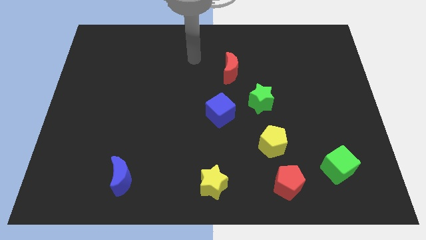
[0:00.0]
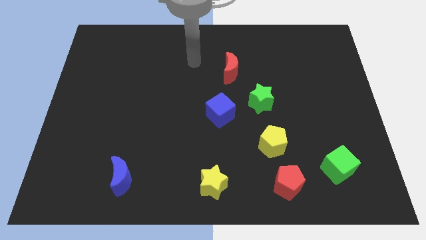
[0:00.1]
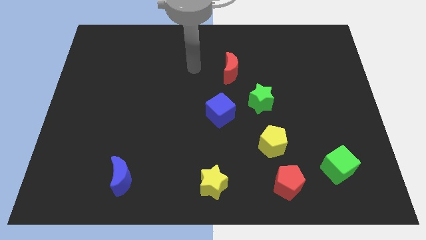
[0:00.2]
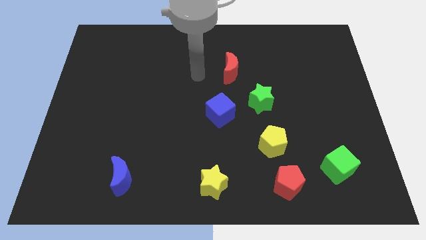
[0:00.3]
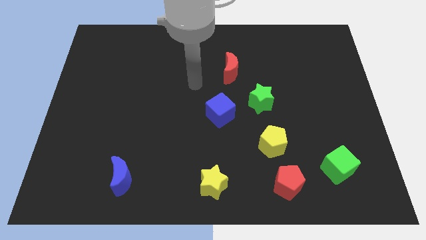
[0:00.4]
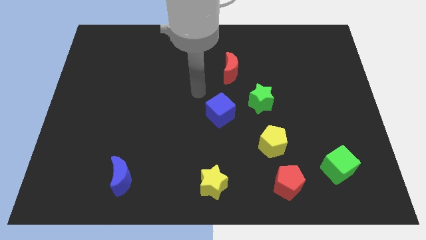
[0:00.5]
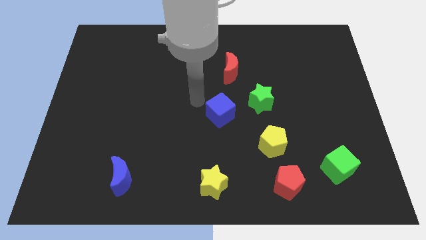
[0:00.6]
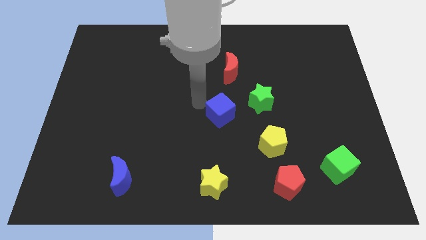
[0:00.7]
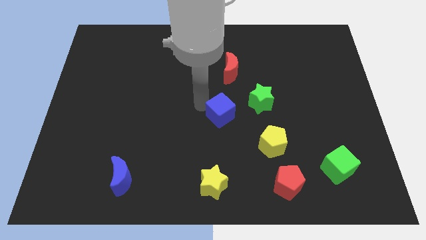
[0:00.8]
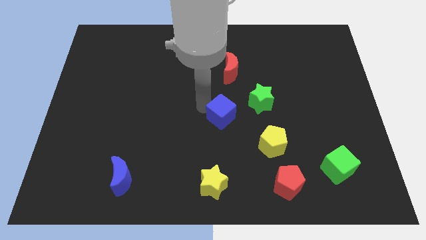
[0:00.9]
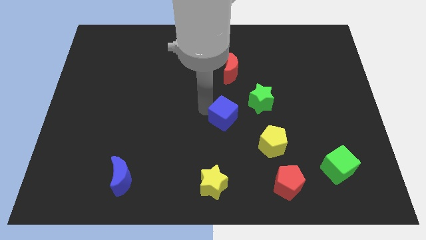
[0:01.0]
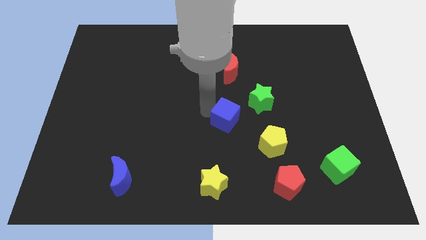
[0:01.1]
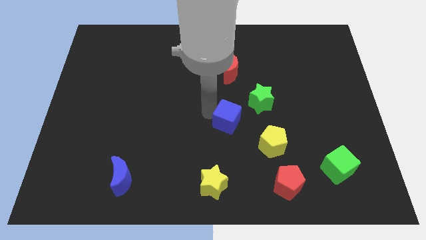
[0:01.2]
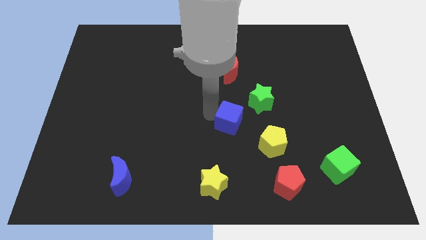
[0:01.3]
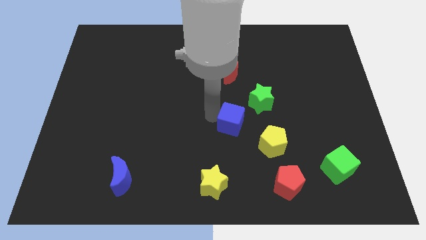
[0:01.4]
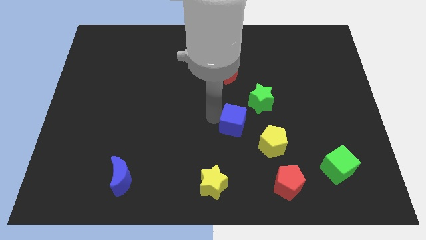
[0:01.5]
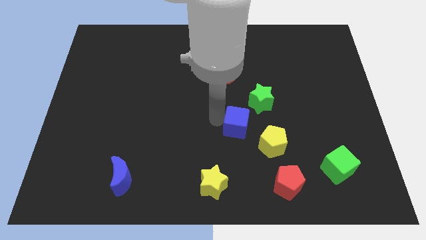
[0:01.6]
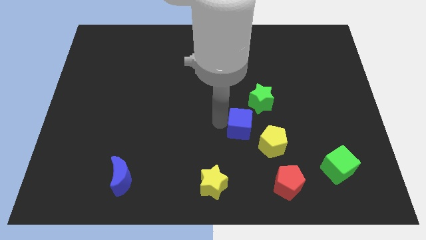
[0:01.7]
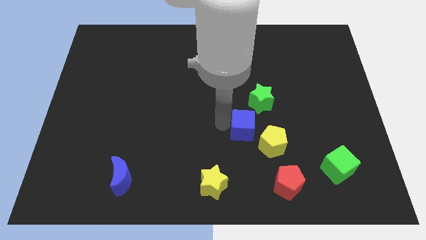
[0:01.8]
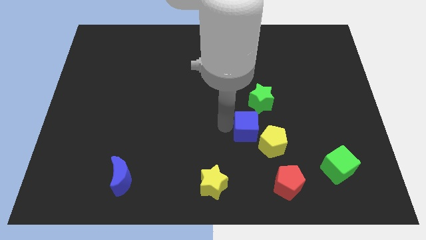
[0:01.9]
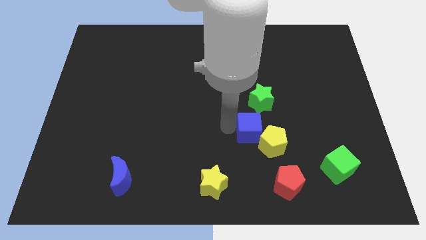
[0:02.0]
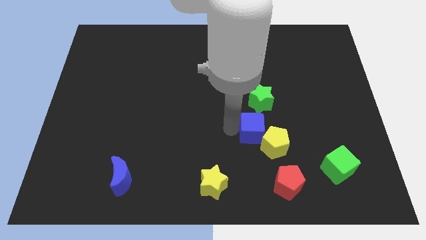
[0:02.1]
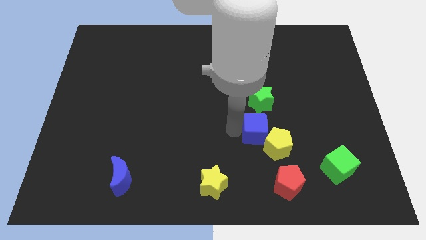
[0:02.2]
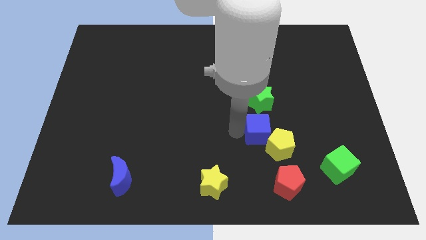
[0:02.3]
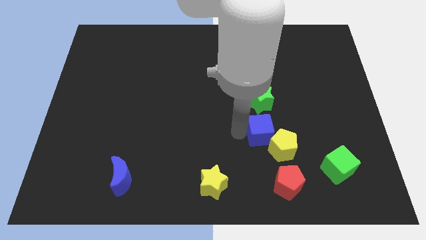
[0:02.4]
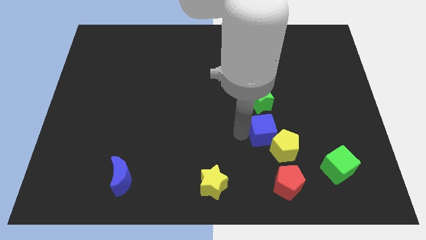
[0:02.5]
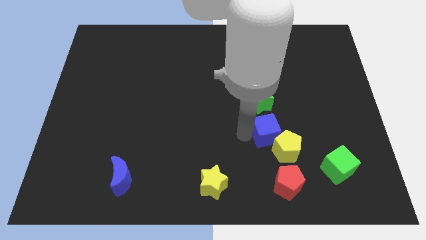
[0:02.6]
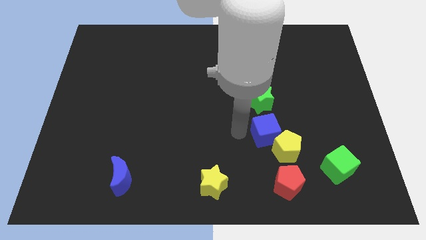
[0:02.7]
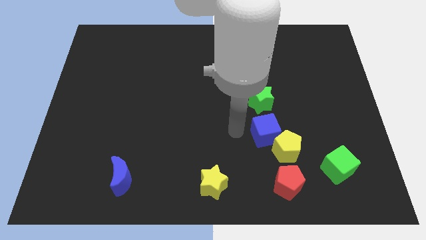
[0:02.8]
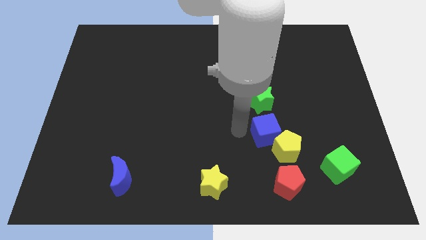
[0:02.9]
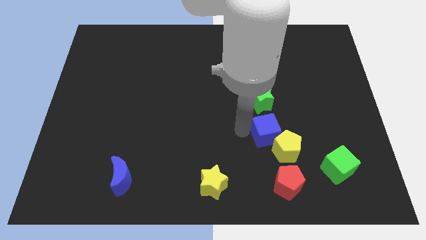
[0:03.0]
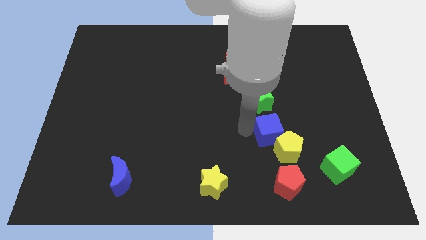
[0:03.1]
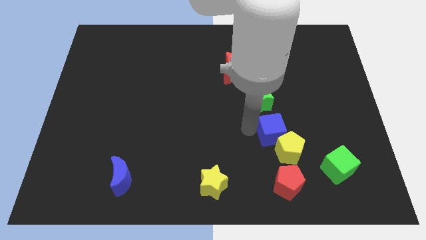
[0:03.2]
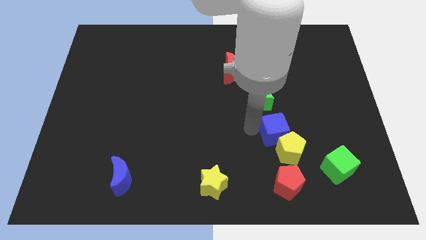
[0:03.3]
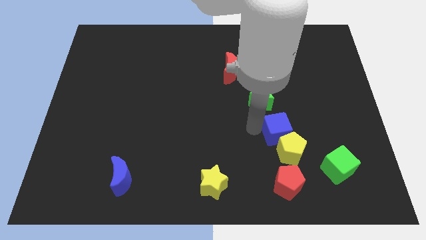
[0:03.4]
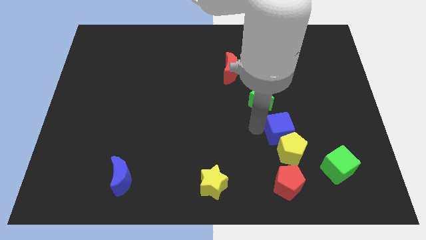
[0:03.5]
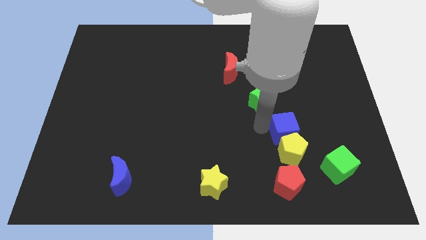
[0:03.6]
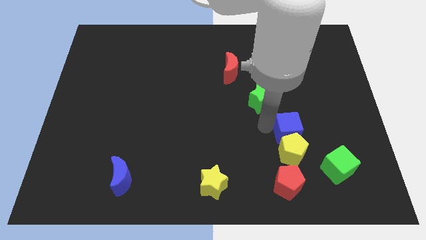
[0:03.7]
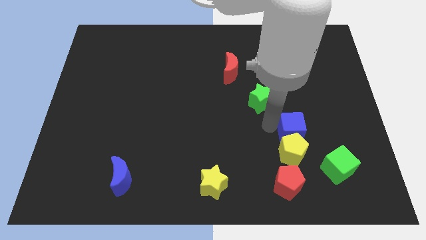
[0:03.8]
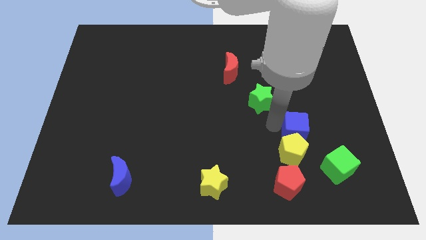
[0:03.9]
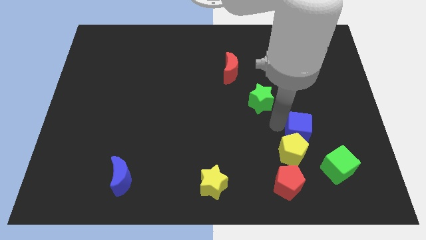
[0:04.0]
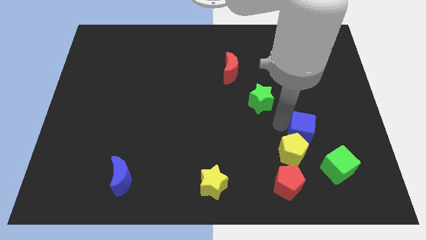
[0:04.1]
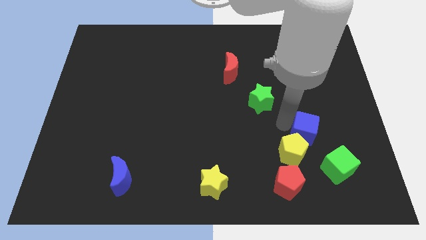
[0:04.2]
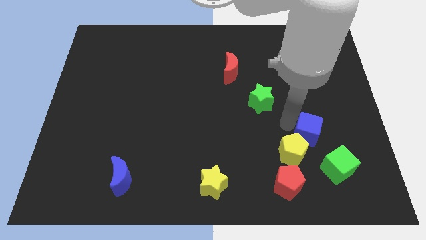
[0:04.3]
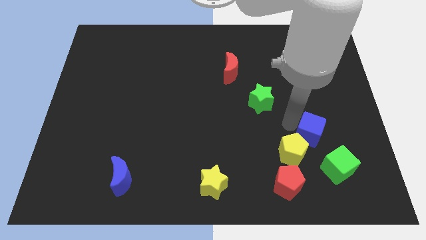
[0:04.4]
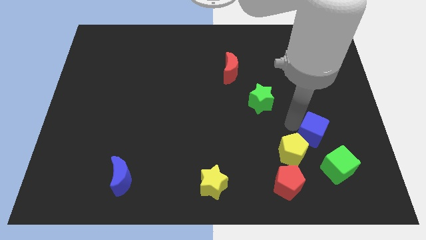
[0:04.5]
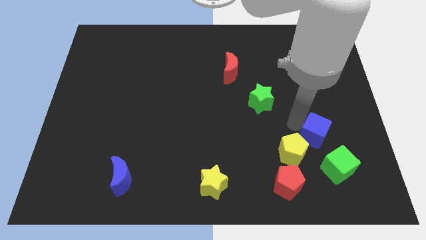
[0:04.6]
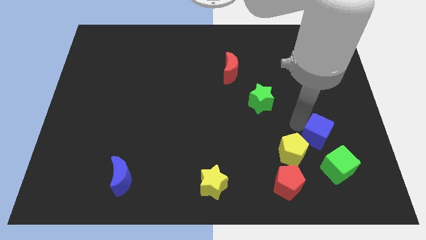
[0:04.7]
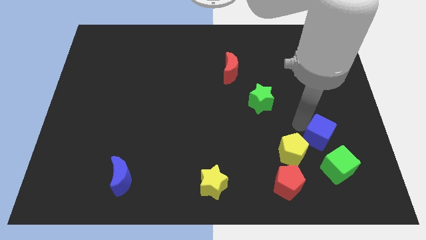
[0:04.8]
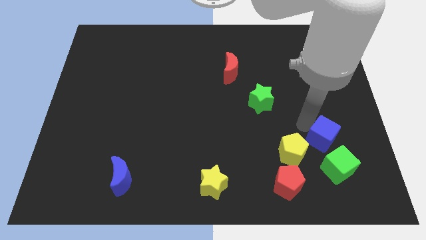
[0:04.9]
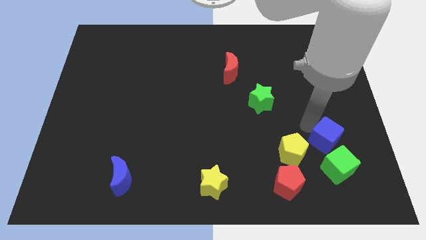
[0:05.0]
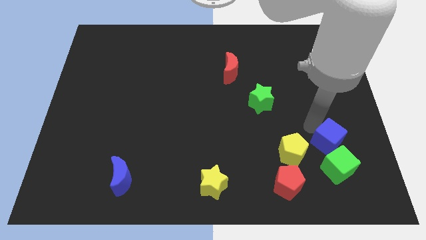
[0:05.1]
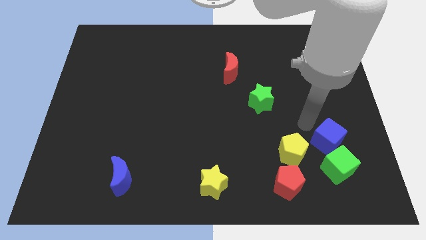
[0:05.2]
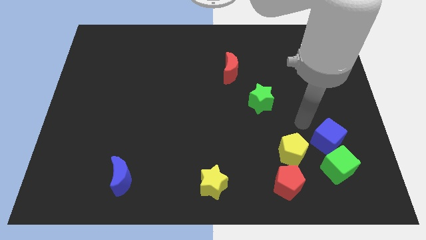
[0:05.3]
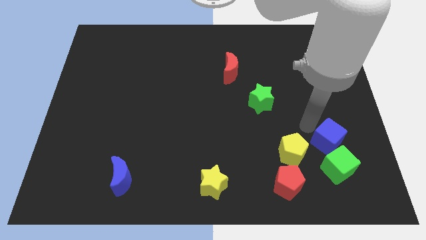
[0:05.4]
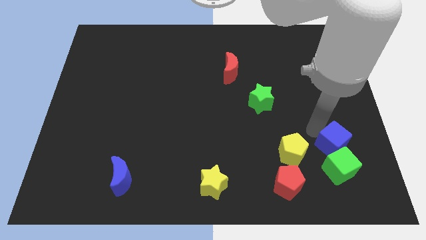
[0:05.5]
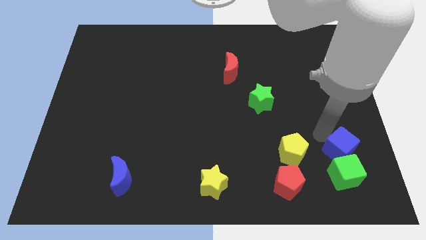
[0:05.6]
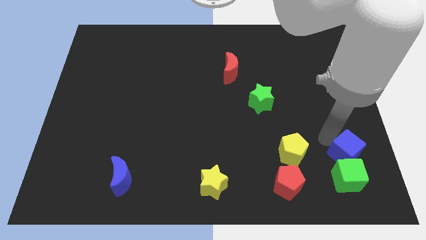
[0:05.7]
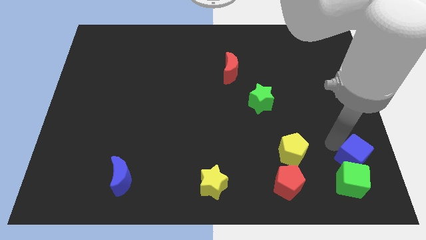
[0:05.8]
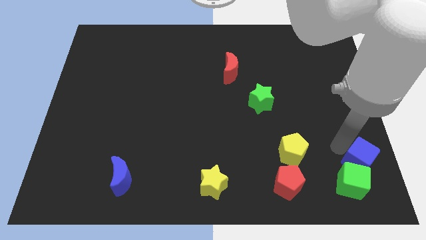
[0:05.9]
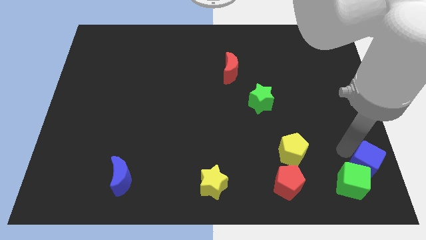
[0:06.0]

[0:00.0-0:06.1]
move the blue cube to the lower right corner
